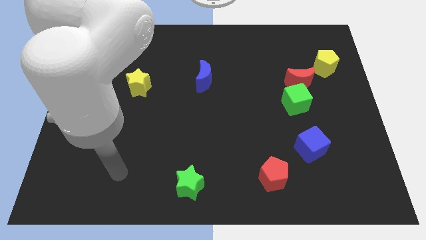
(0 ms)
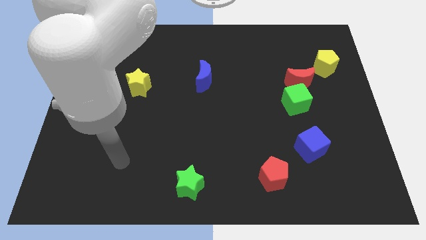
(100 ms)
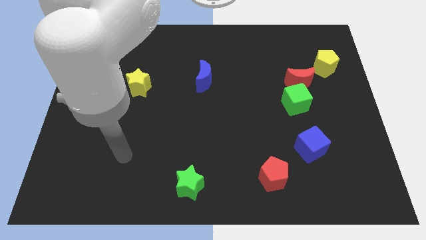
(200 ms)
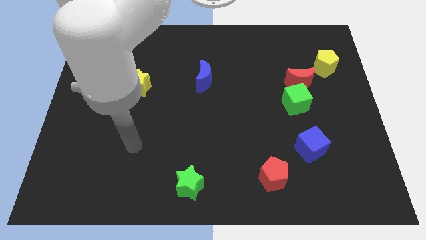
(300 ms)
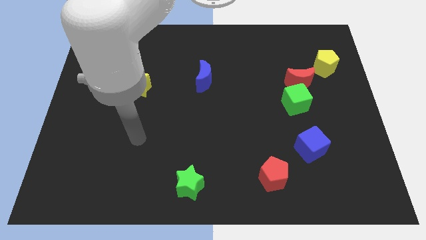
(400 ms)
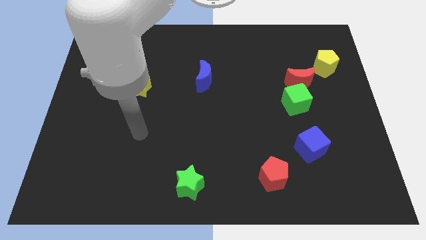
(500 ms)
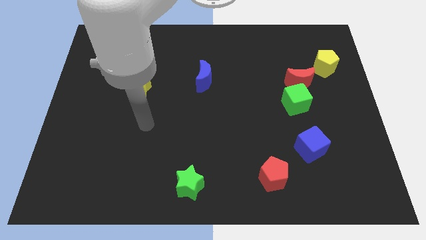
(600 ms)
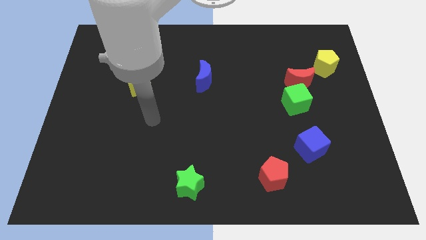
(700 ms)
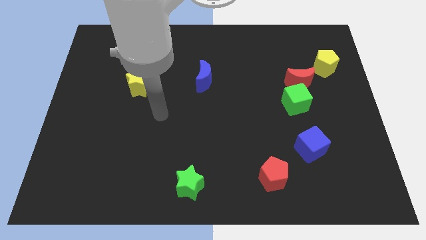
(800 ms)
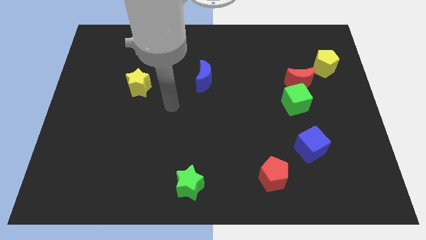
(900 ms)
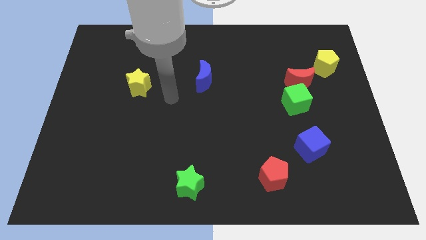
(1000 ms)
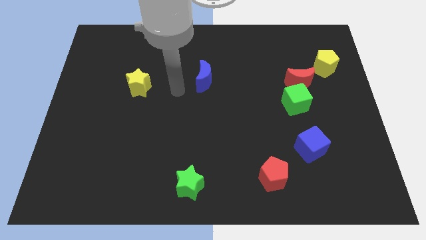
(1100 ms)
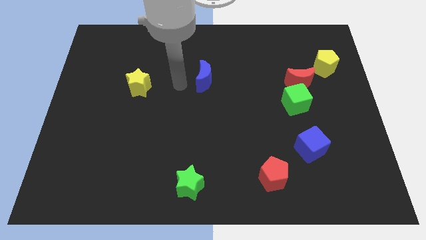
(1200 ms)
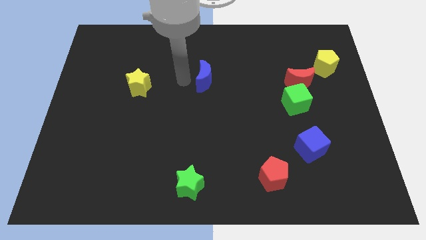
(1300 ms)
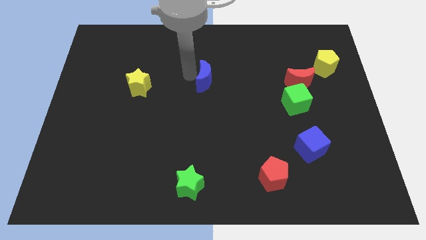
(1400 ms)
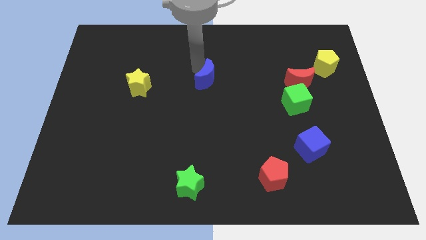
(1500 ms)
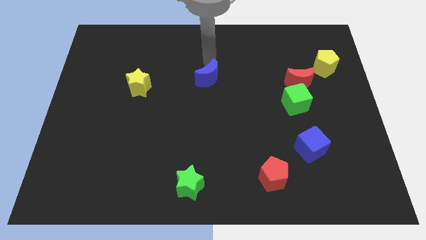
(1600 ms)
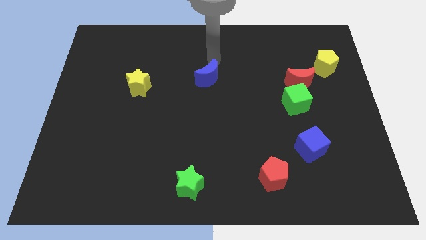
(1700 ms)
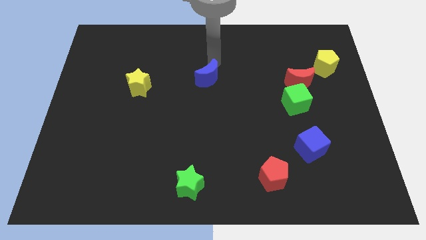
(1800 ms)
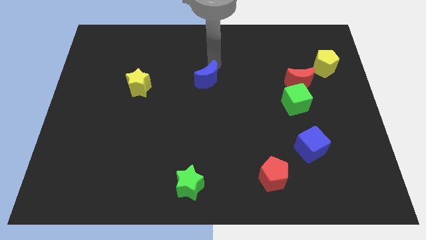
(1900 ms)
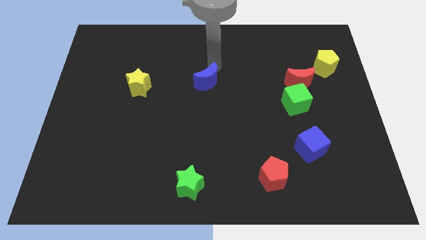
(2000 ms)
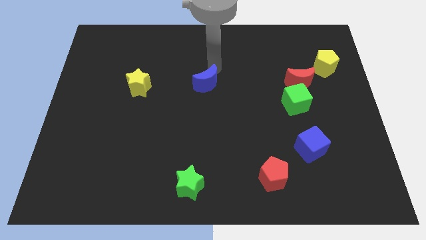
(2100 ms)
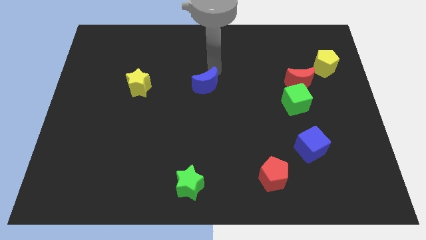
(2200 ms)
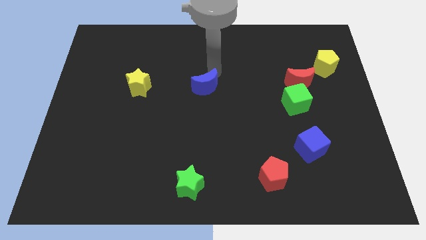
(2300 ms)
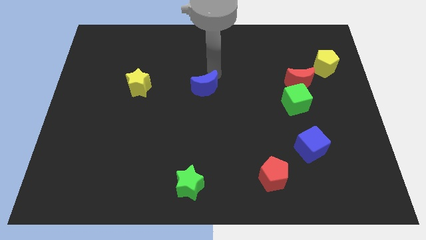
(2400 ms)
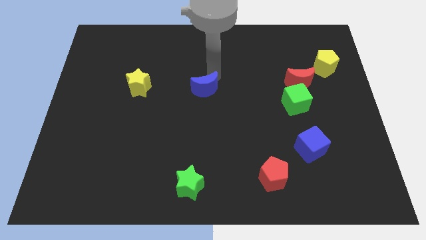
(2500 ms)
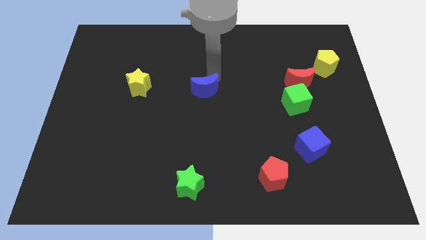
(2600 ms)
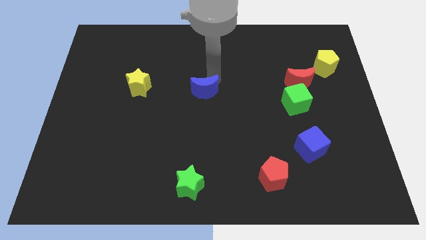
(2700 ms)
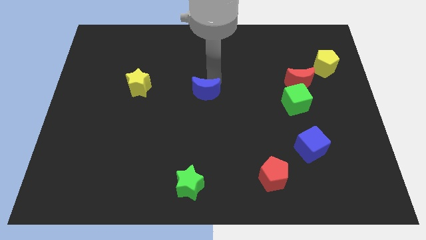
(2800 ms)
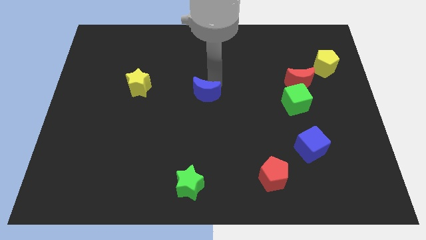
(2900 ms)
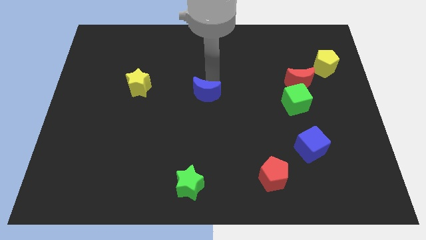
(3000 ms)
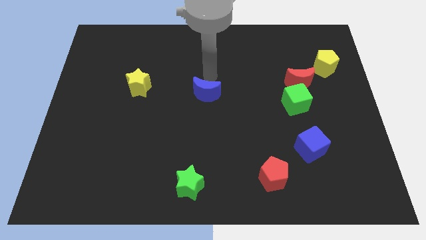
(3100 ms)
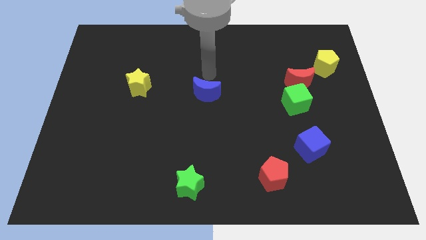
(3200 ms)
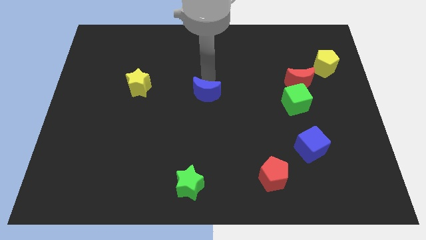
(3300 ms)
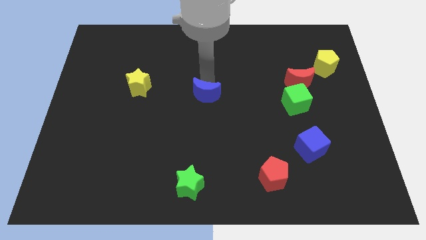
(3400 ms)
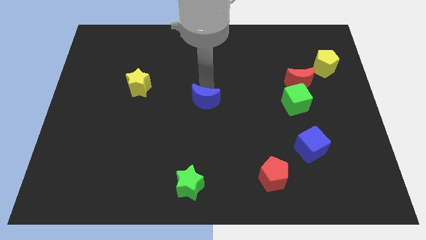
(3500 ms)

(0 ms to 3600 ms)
slightly move the blue moon down

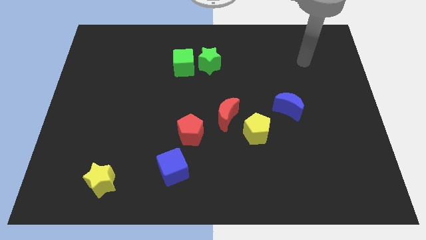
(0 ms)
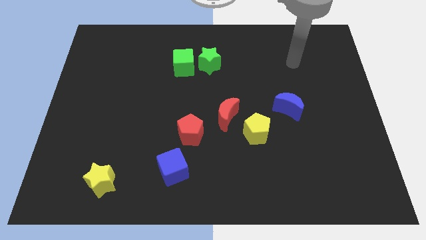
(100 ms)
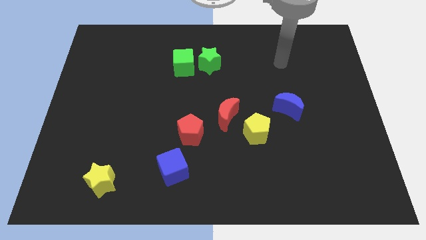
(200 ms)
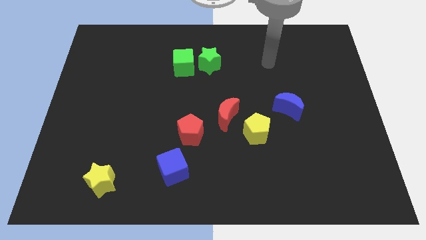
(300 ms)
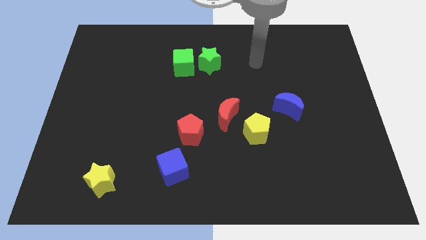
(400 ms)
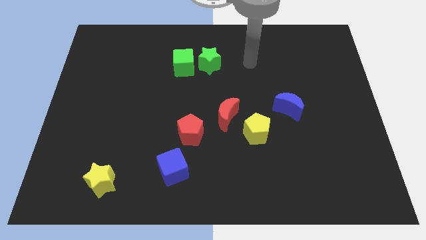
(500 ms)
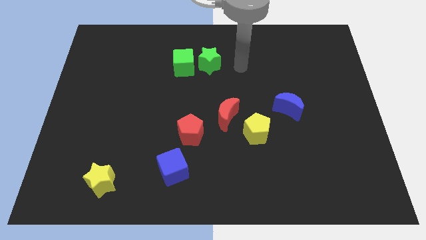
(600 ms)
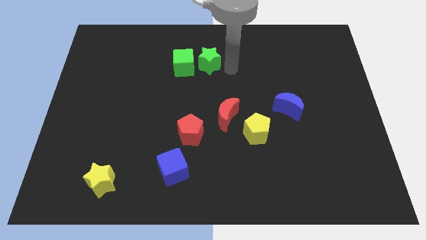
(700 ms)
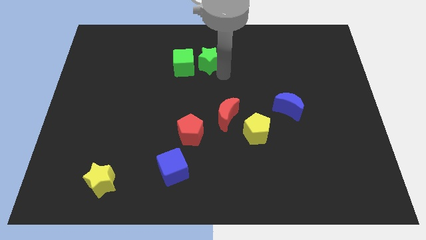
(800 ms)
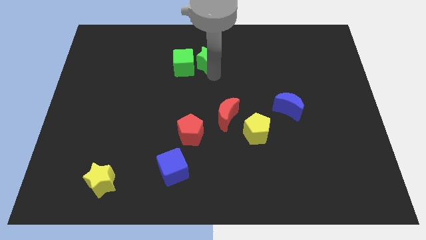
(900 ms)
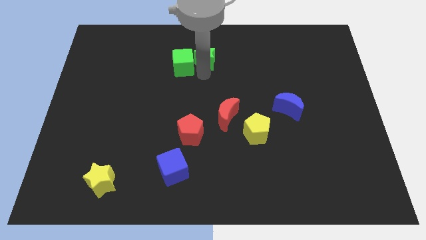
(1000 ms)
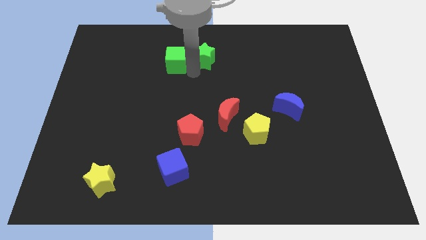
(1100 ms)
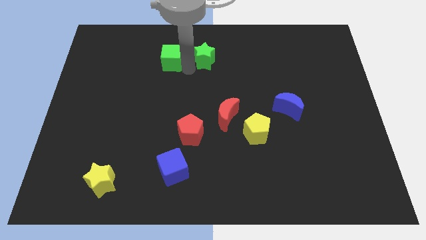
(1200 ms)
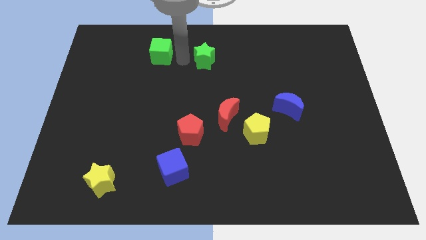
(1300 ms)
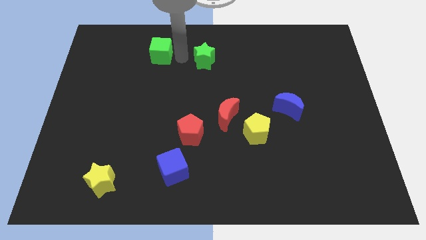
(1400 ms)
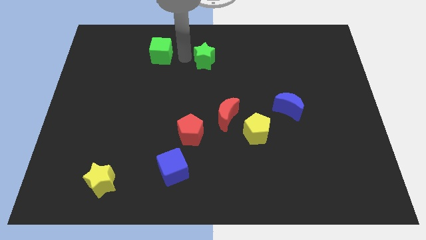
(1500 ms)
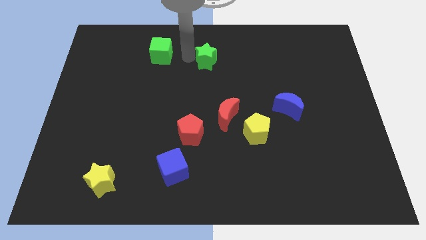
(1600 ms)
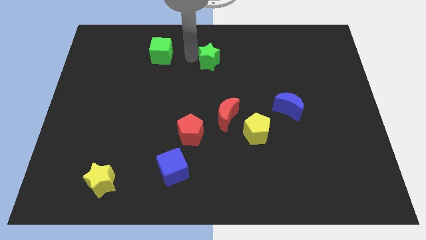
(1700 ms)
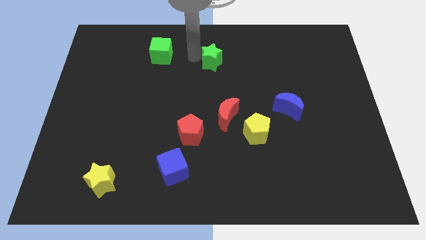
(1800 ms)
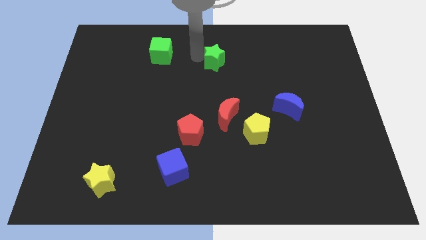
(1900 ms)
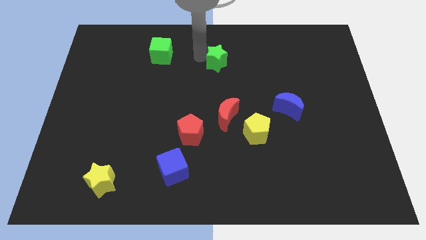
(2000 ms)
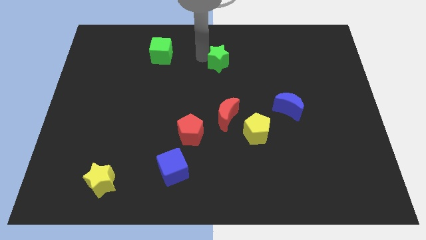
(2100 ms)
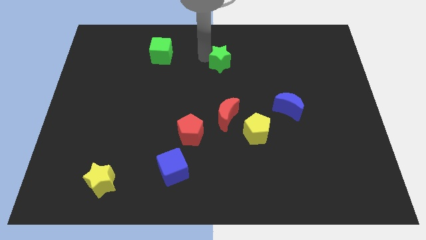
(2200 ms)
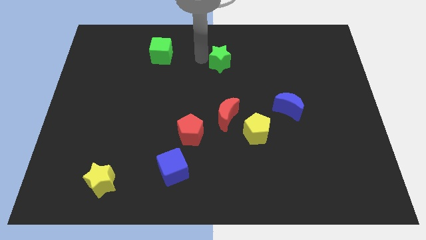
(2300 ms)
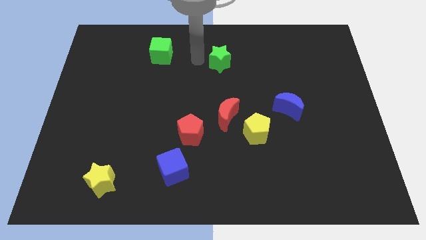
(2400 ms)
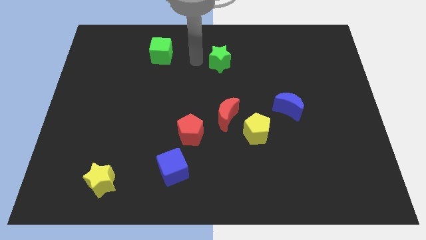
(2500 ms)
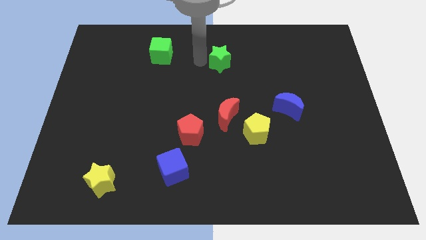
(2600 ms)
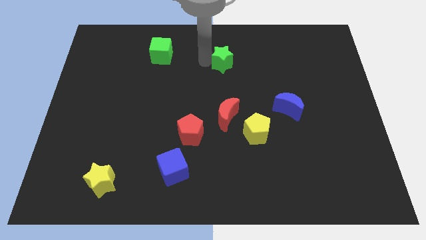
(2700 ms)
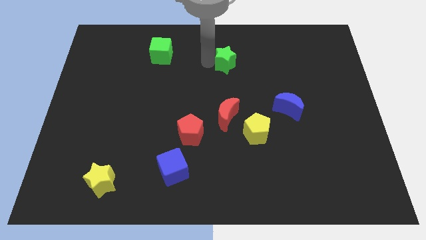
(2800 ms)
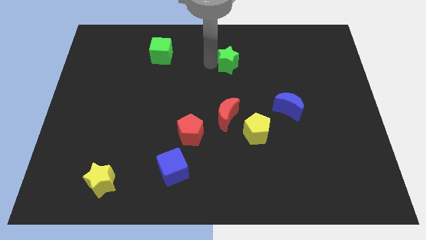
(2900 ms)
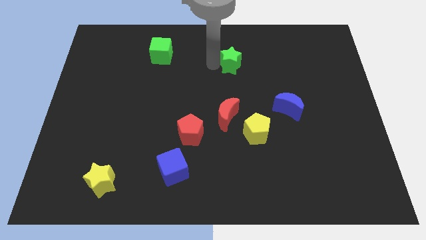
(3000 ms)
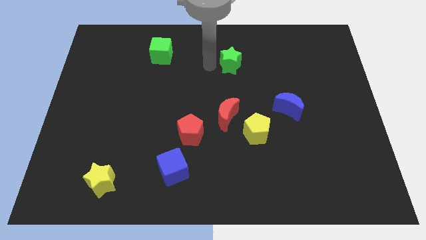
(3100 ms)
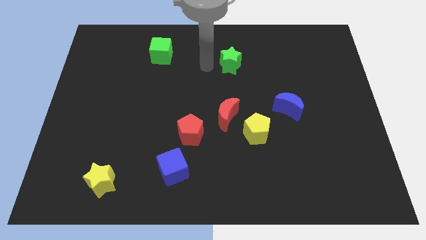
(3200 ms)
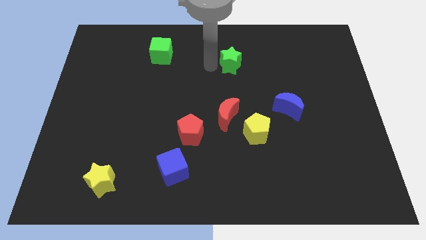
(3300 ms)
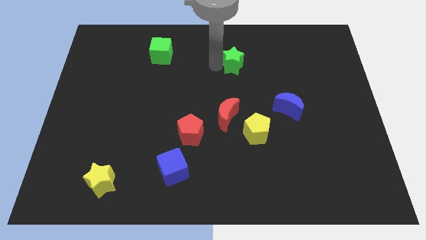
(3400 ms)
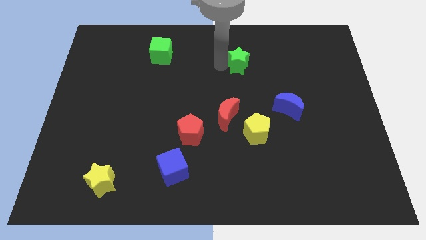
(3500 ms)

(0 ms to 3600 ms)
move the green star a little right

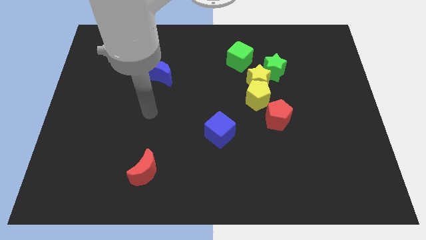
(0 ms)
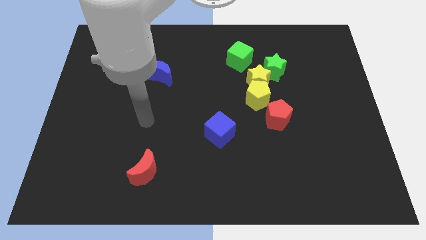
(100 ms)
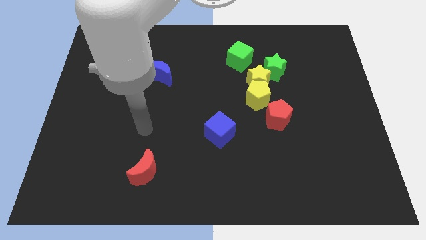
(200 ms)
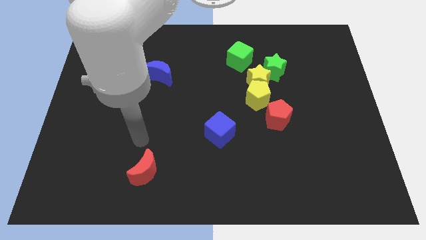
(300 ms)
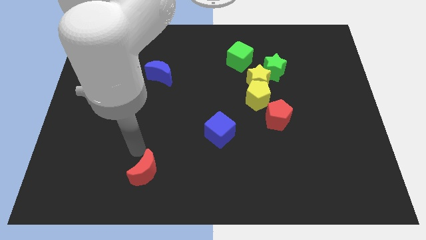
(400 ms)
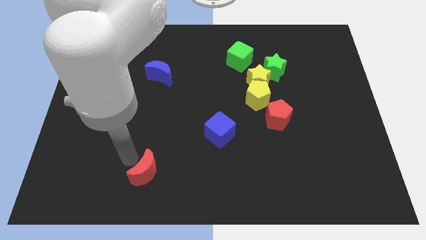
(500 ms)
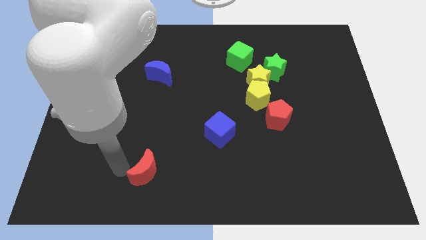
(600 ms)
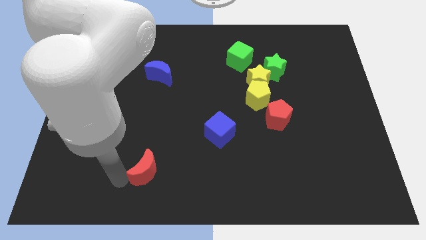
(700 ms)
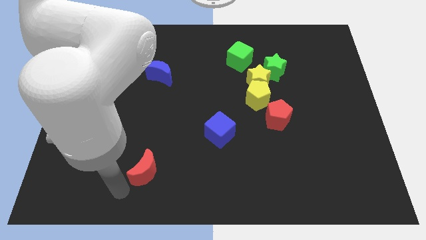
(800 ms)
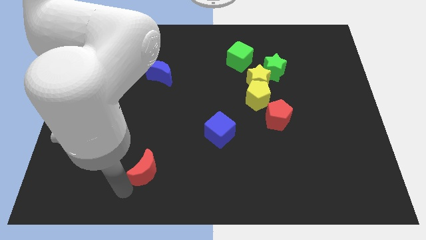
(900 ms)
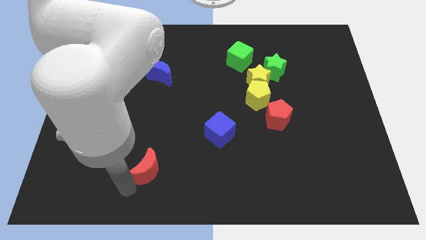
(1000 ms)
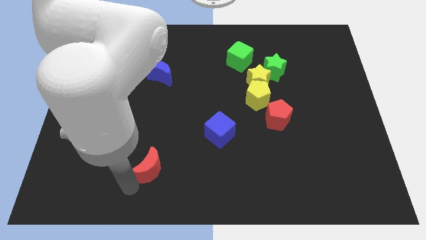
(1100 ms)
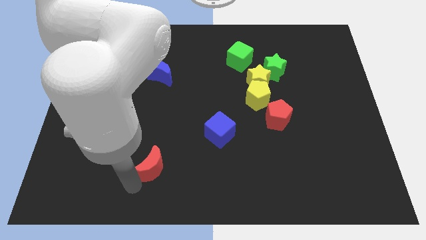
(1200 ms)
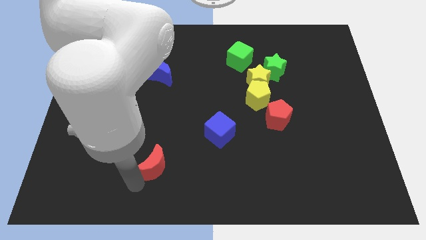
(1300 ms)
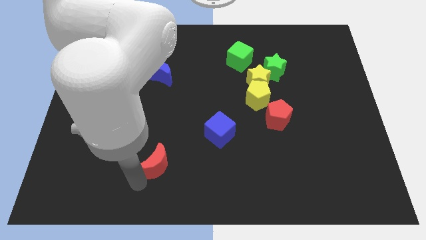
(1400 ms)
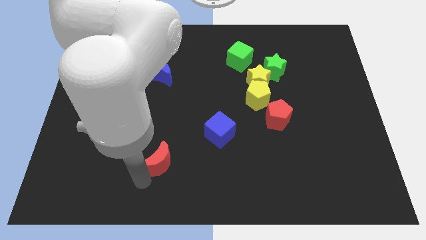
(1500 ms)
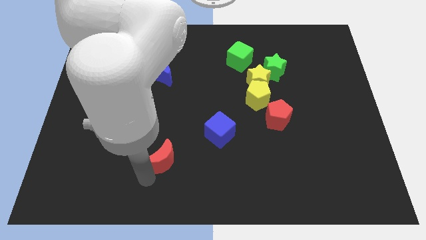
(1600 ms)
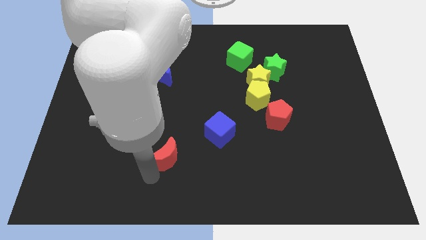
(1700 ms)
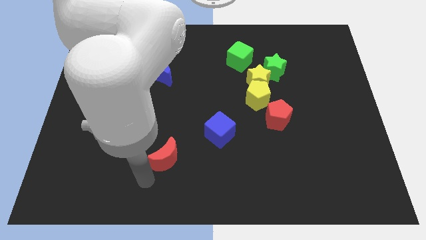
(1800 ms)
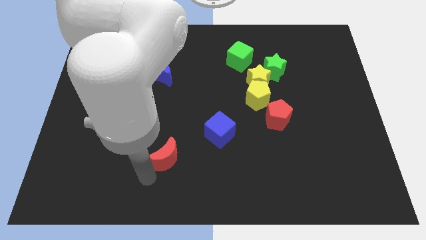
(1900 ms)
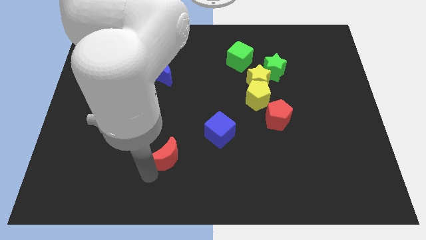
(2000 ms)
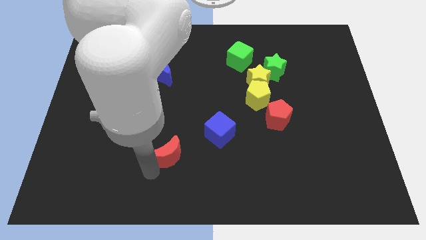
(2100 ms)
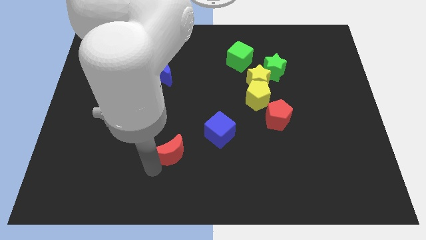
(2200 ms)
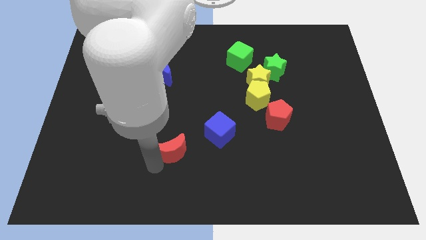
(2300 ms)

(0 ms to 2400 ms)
move the red moon a bit diagonally up and right
